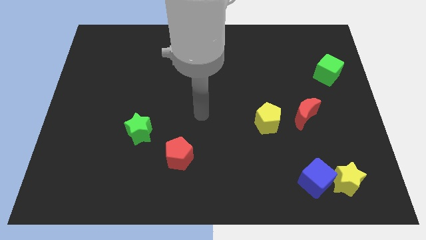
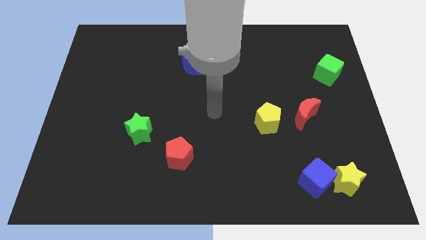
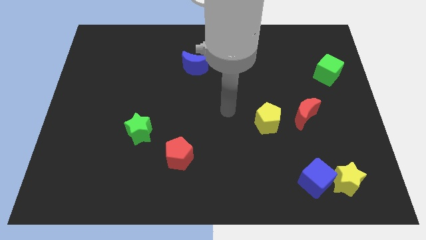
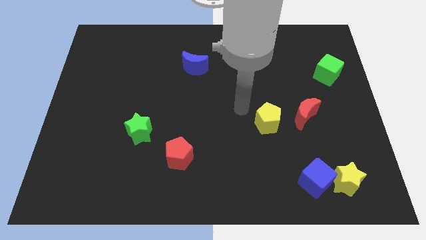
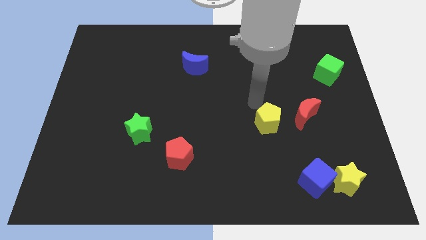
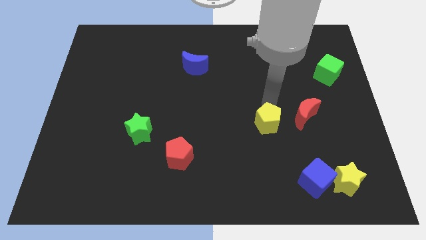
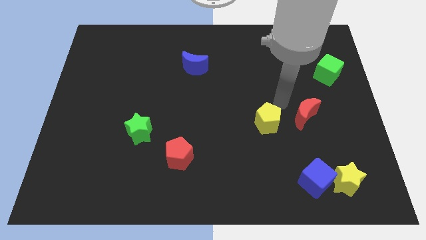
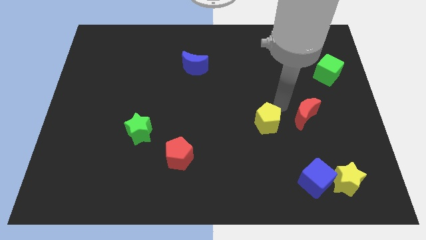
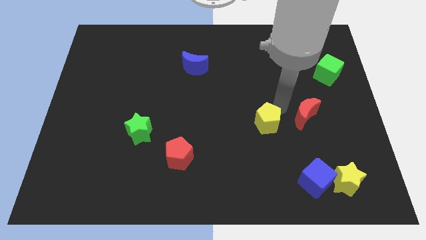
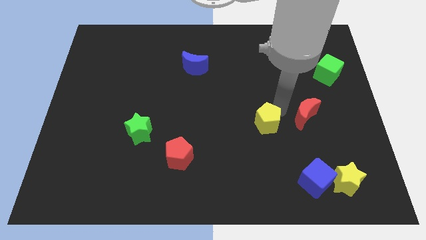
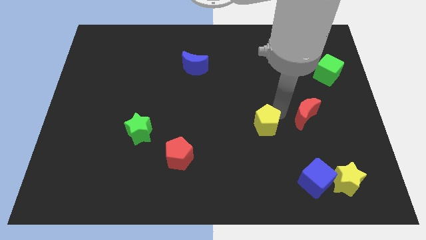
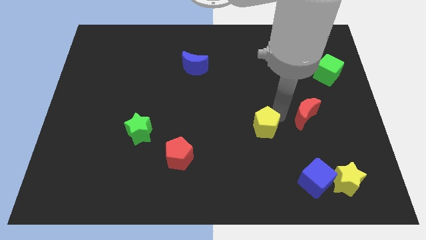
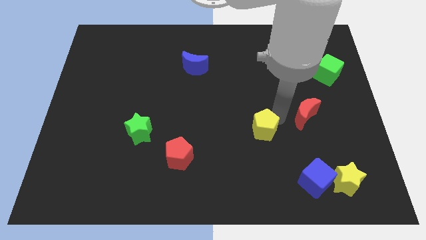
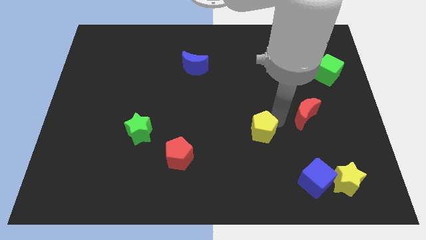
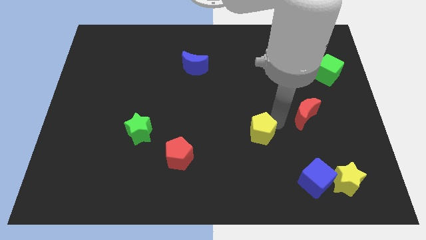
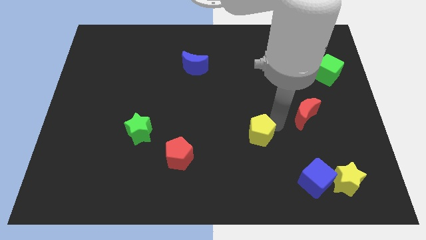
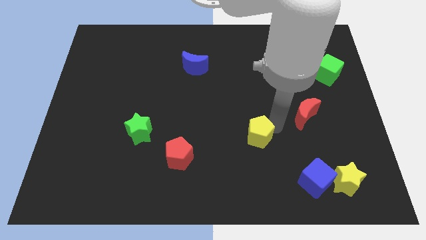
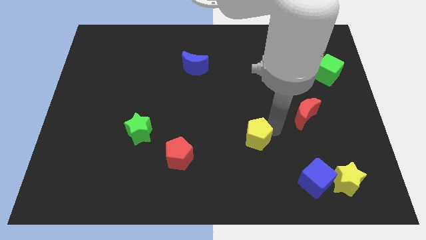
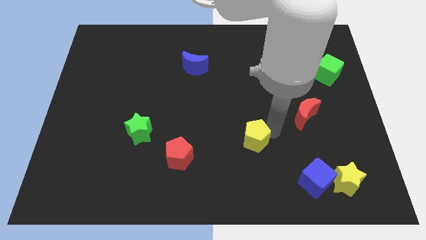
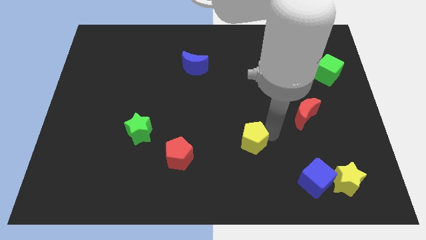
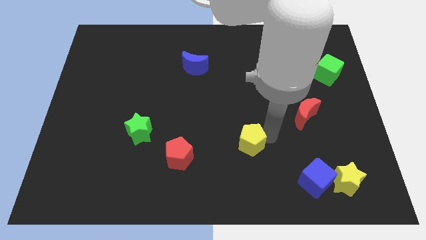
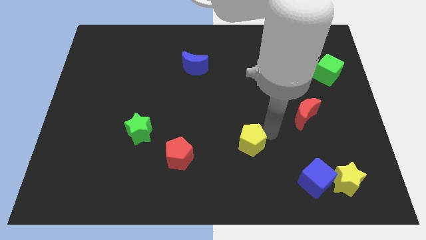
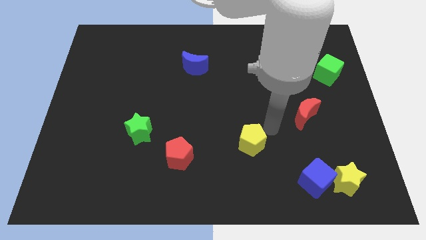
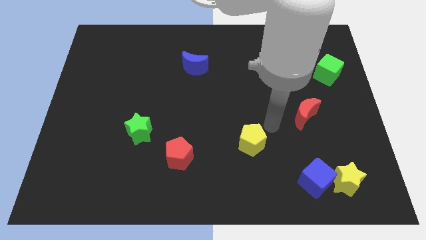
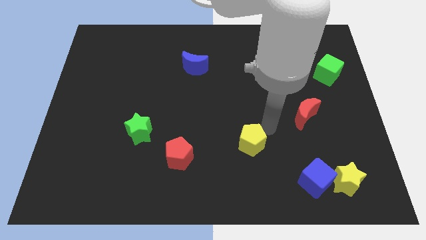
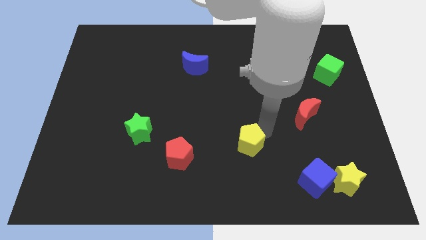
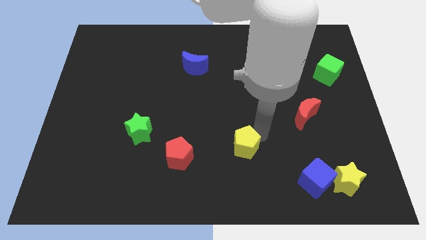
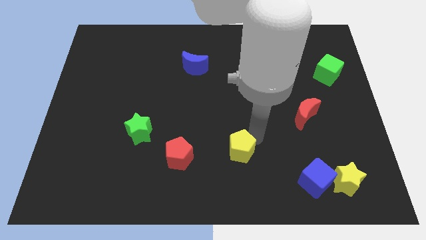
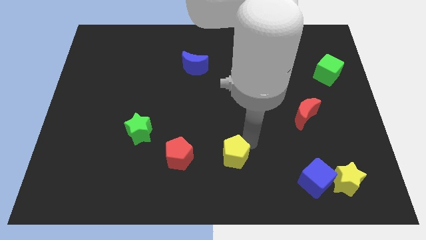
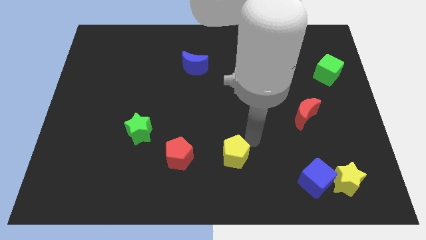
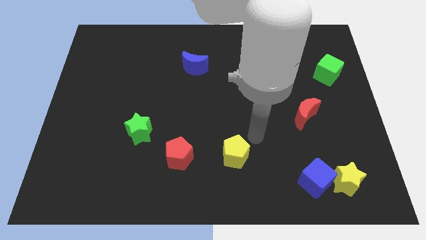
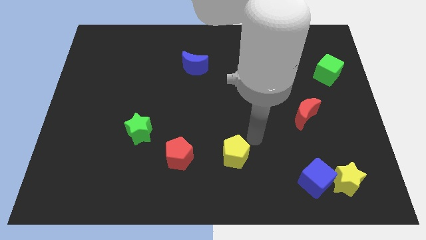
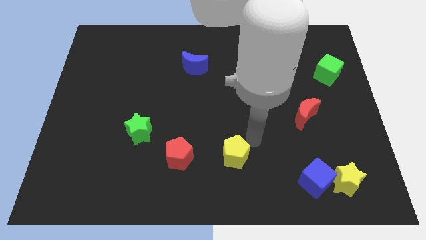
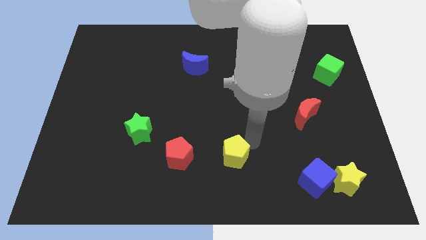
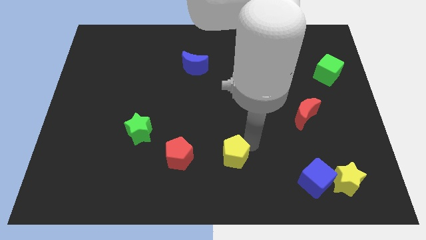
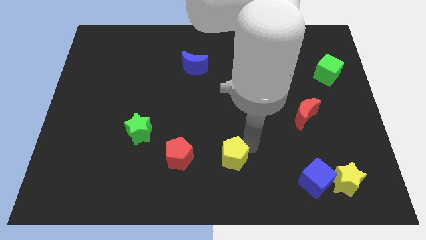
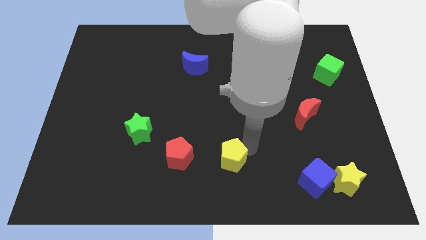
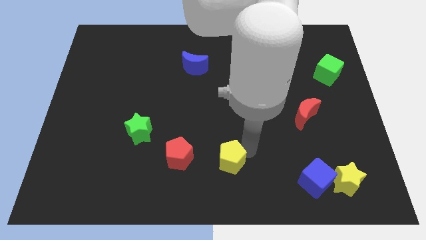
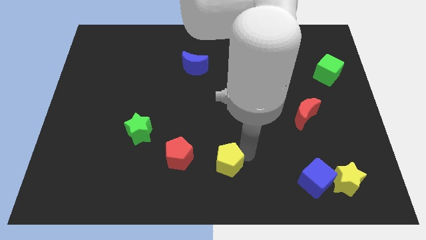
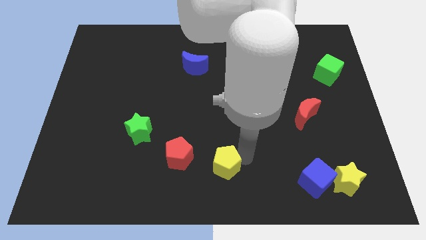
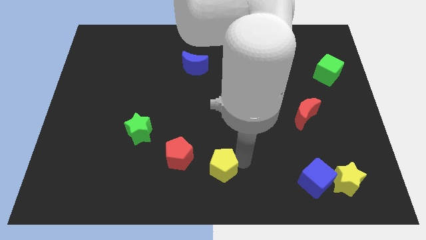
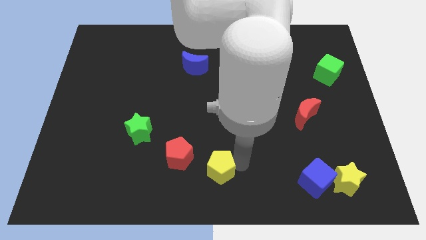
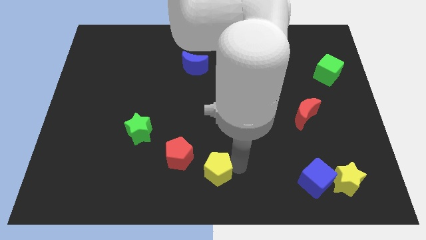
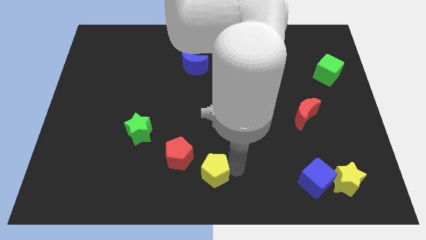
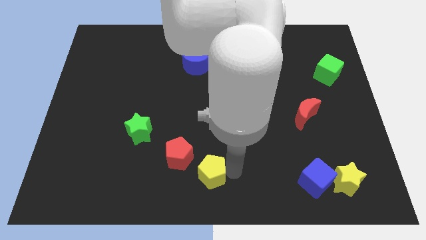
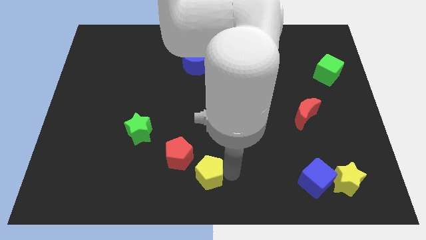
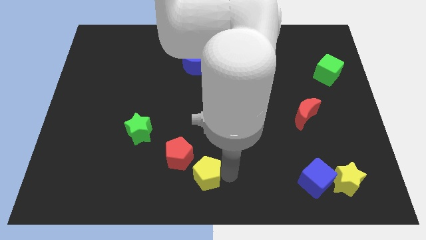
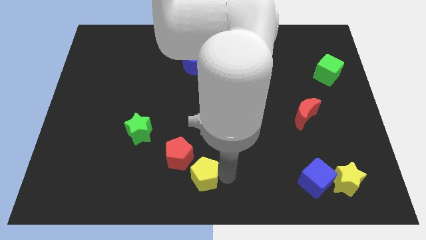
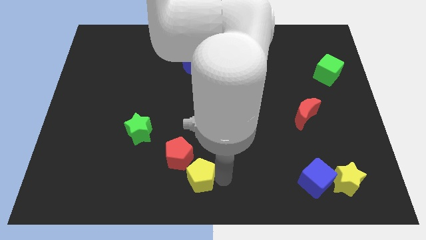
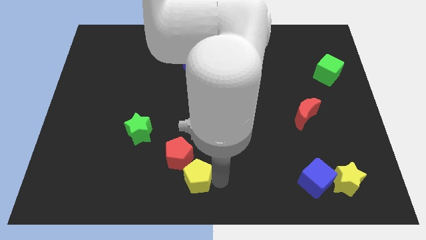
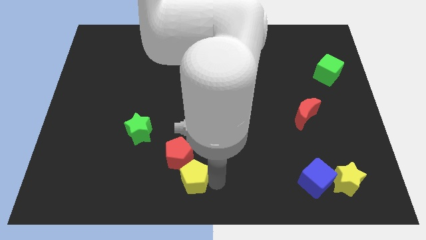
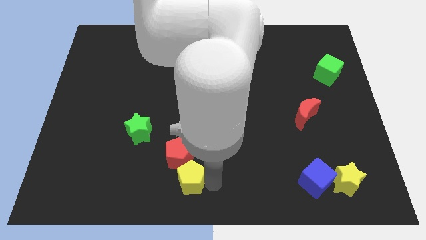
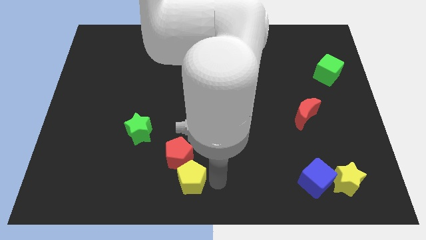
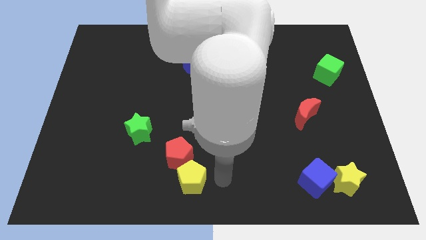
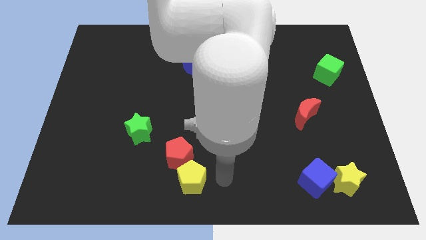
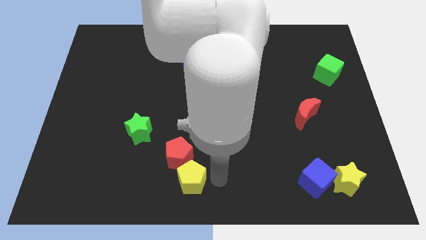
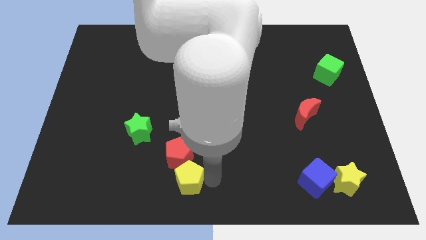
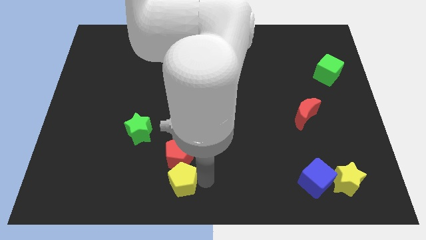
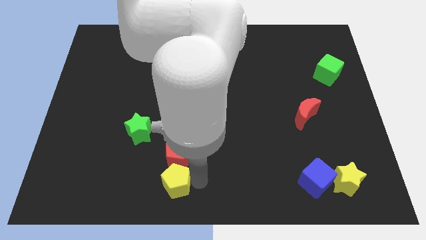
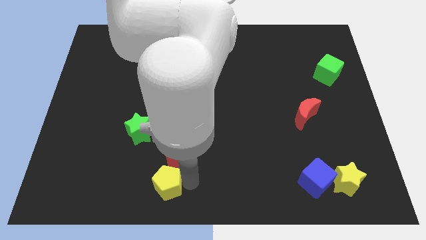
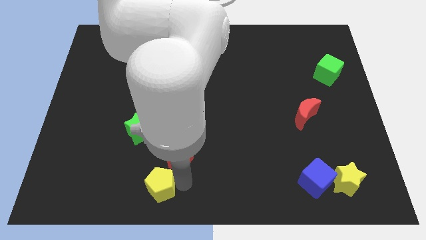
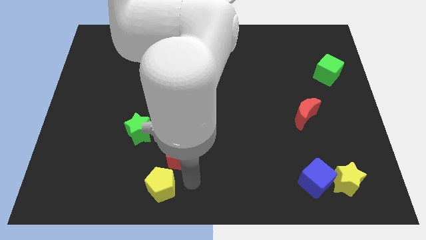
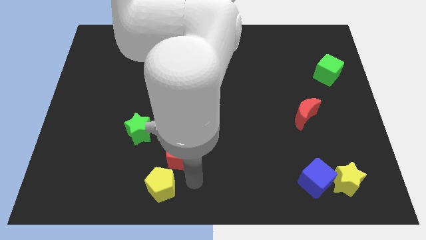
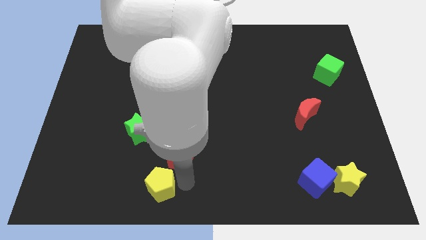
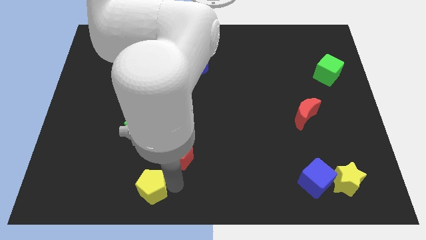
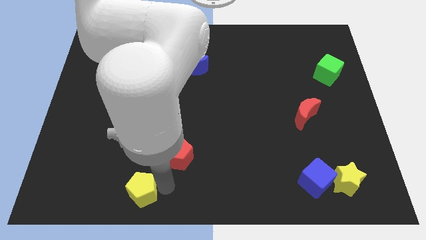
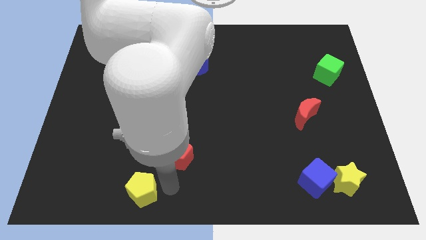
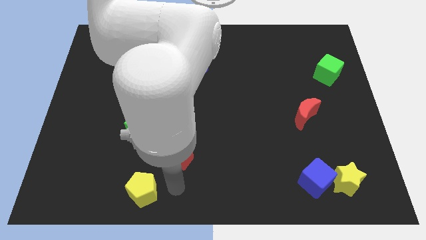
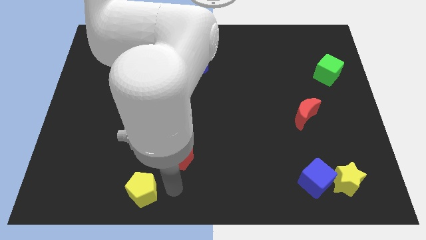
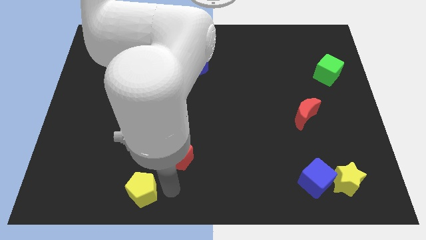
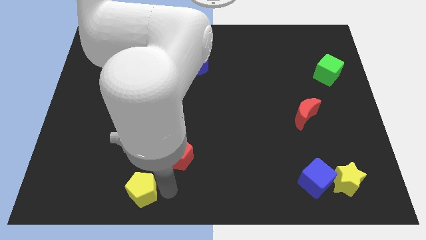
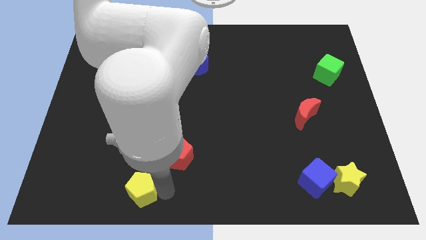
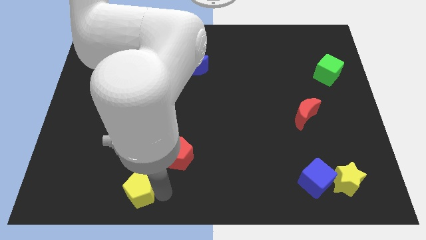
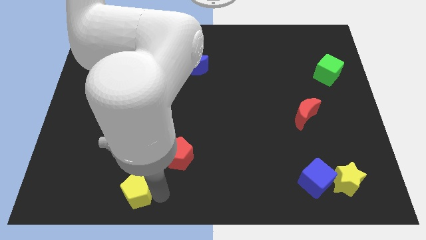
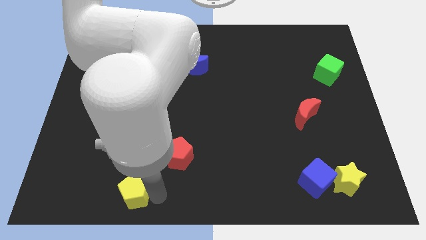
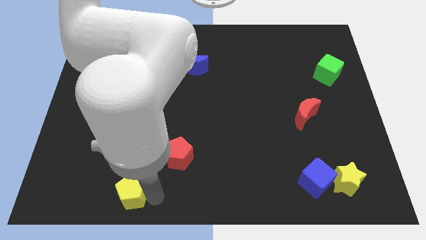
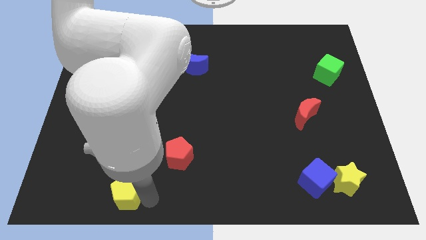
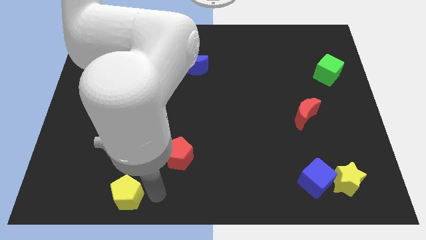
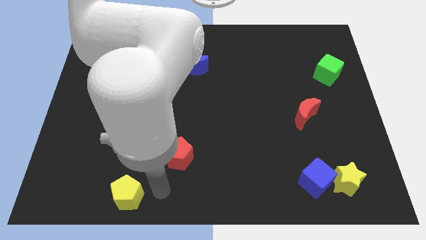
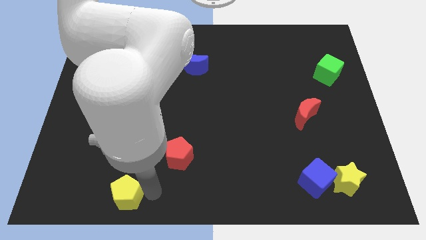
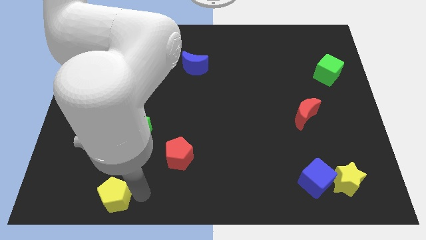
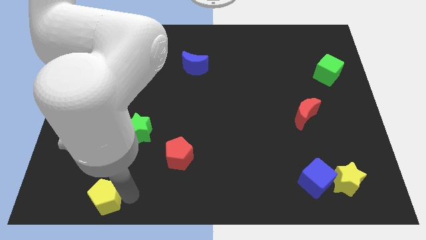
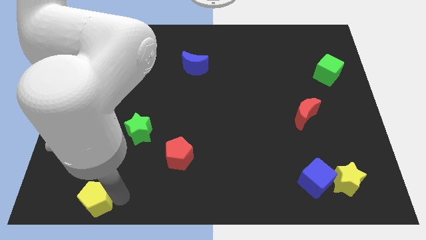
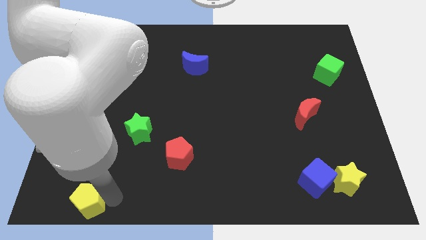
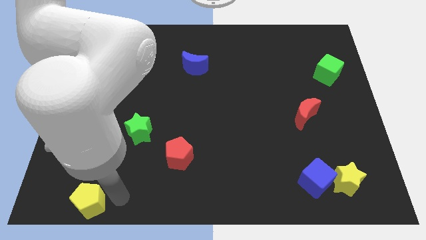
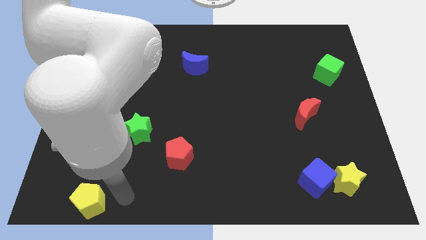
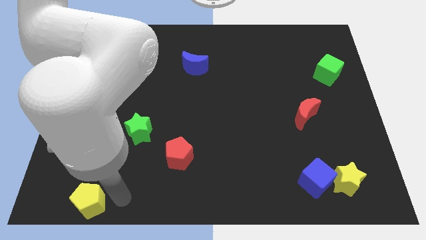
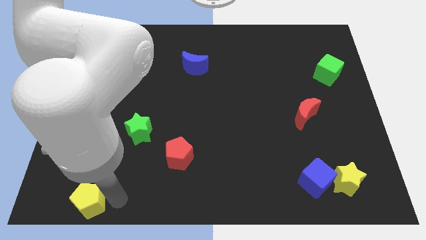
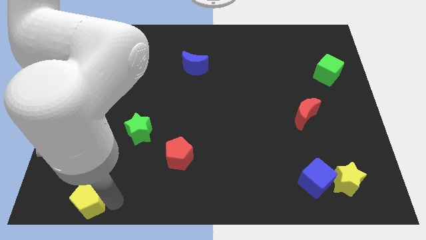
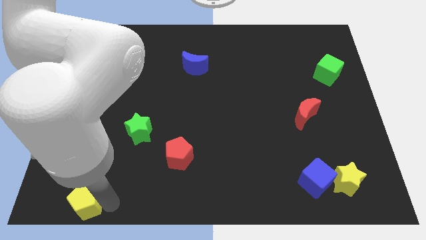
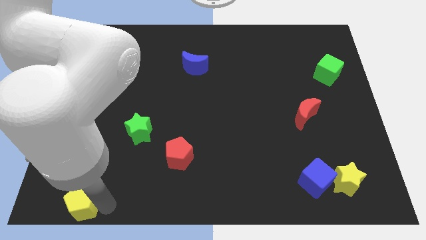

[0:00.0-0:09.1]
move the yellow pentagon to the lower left corner
